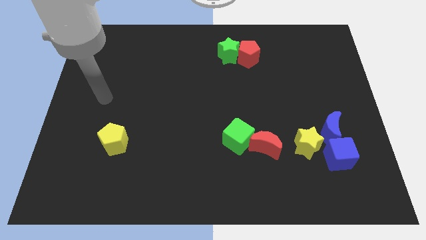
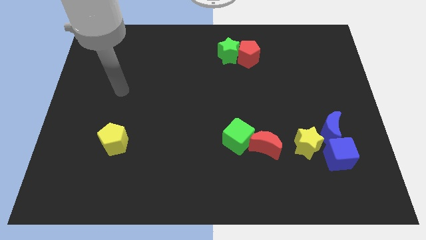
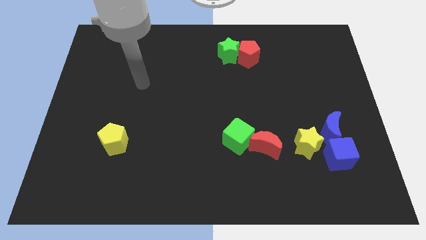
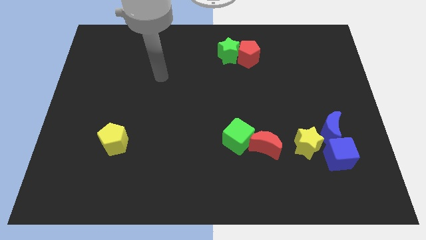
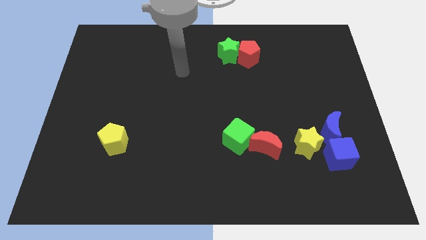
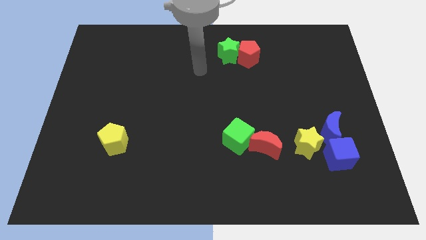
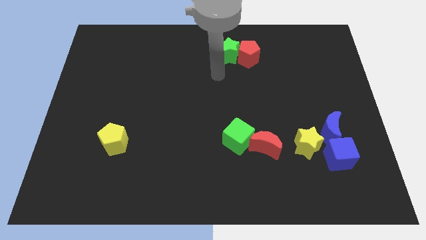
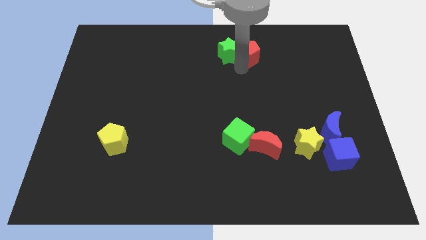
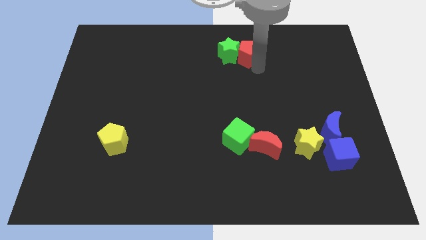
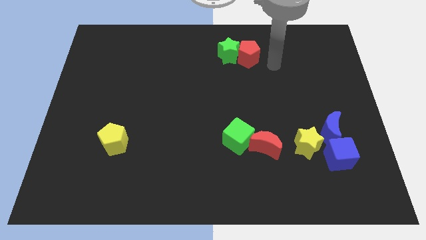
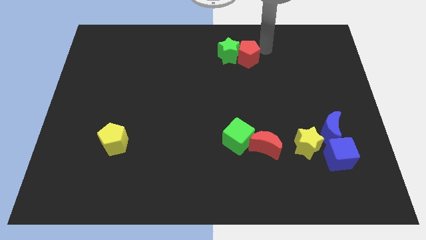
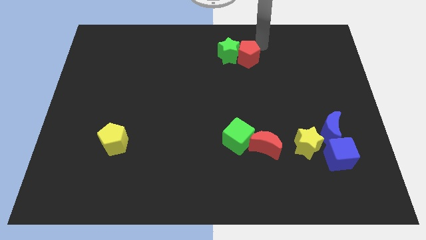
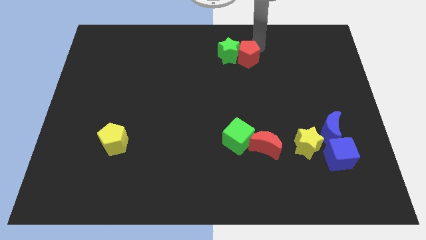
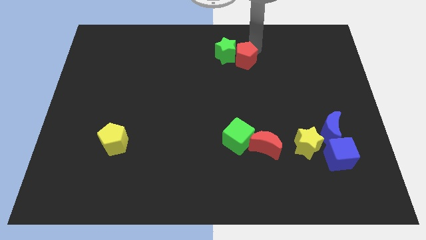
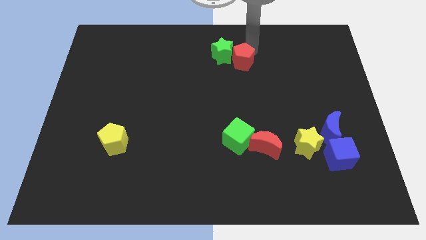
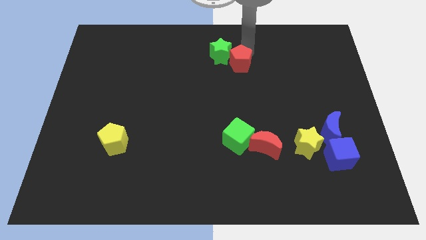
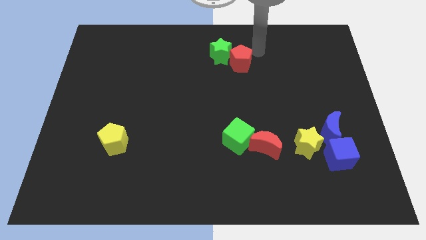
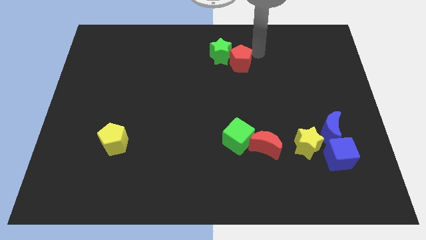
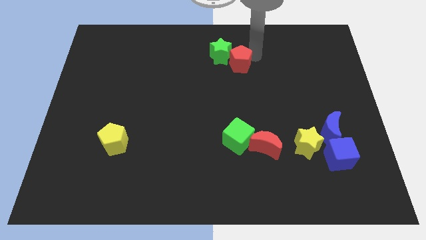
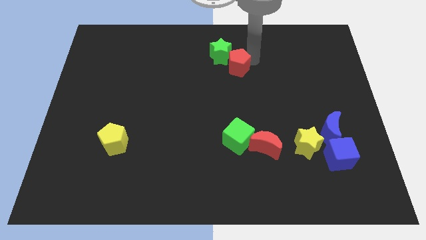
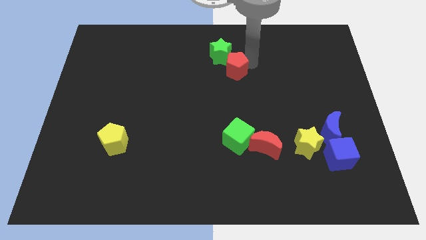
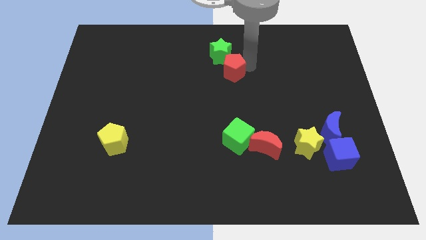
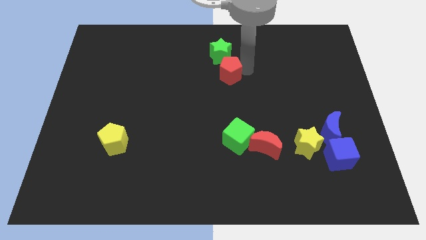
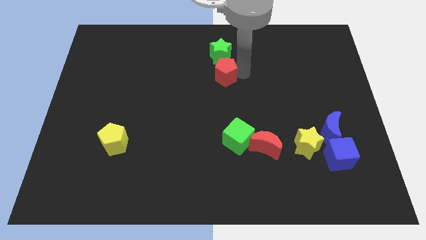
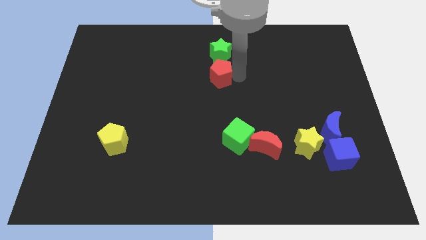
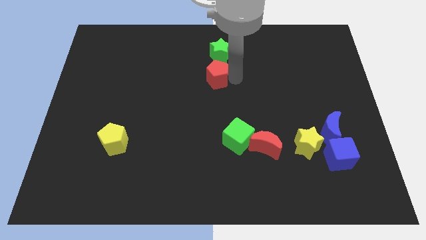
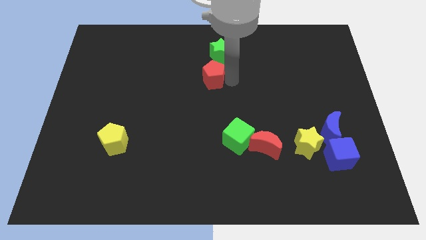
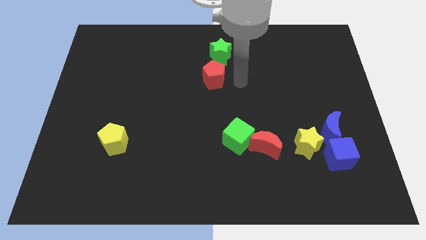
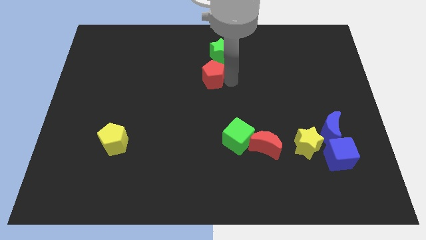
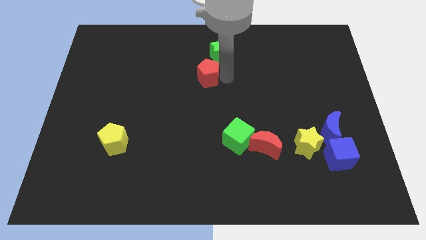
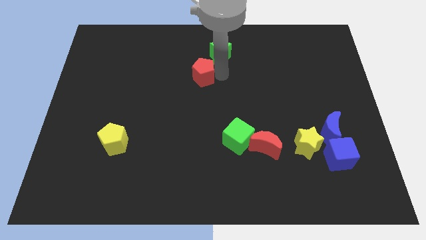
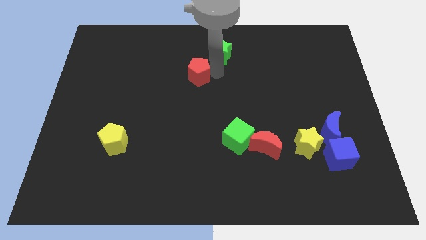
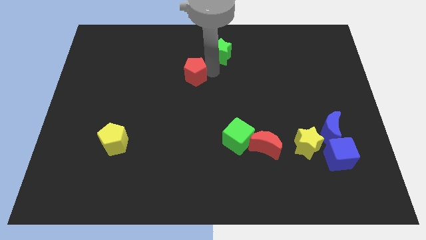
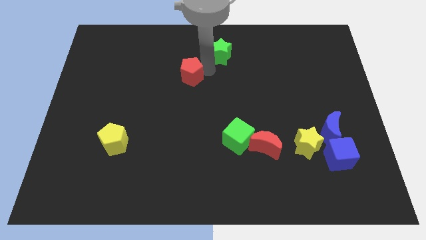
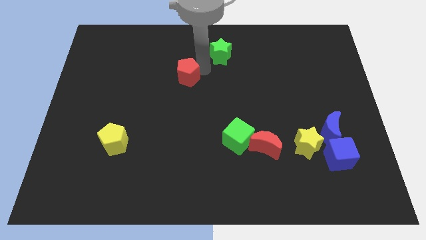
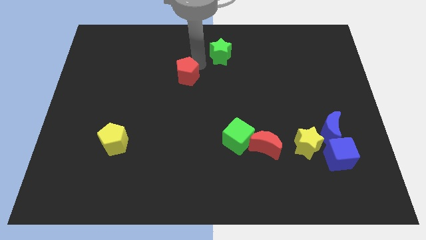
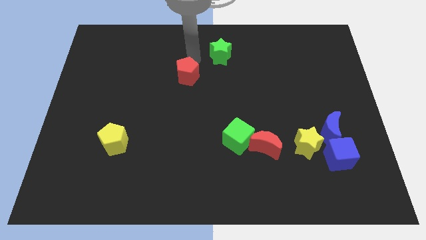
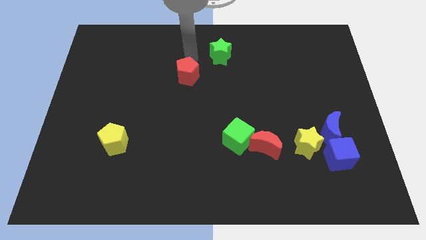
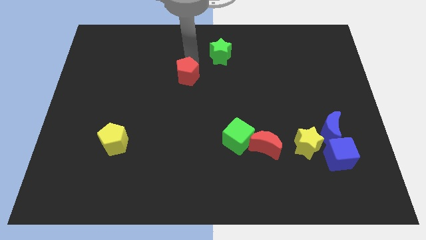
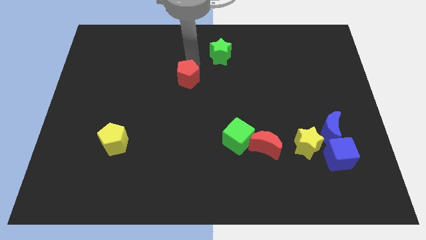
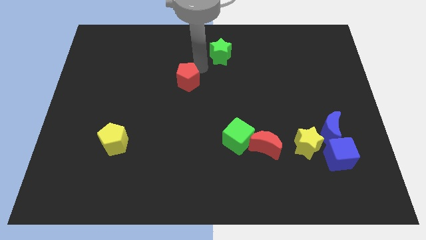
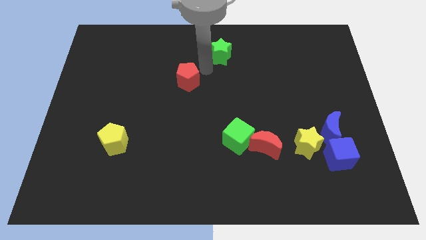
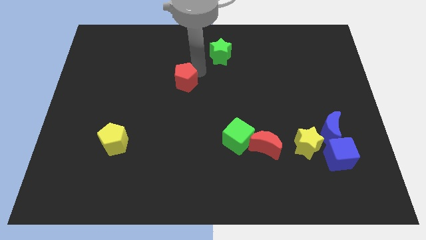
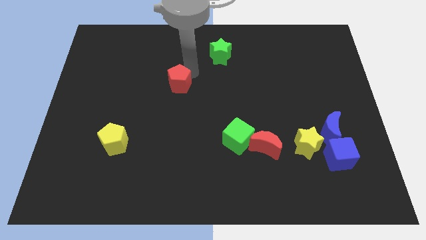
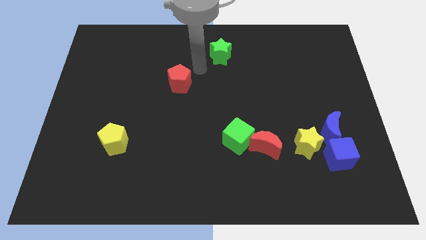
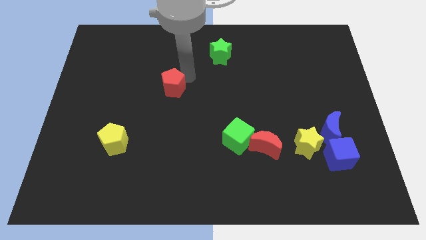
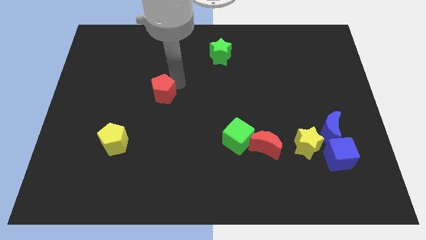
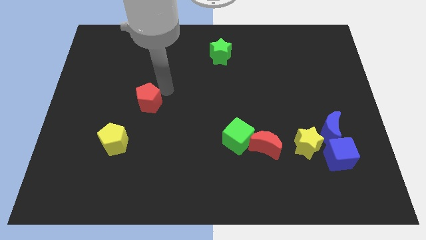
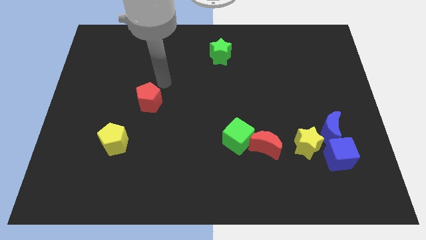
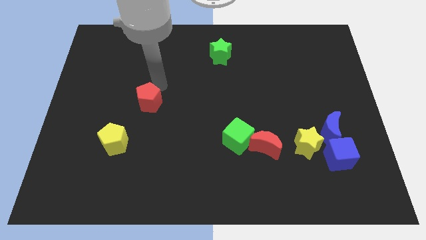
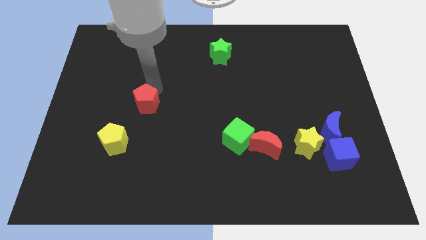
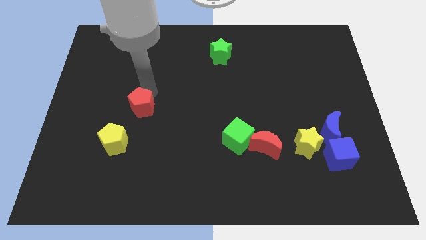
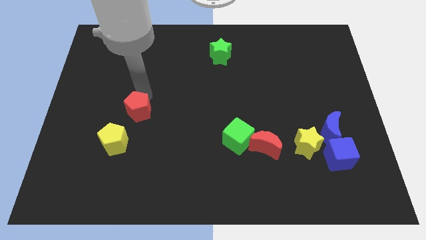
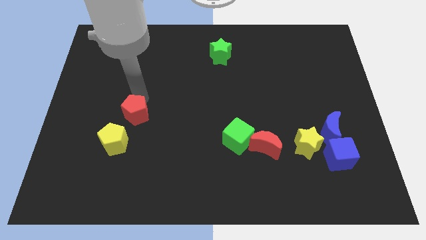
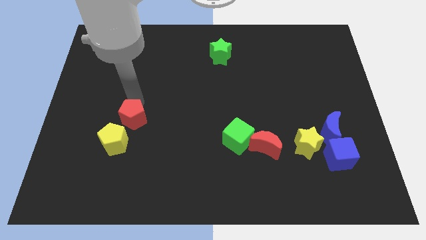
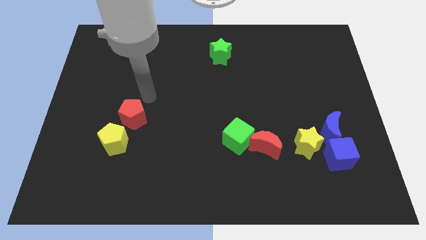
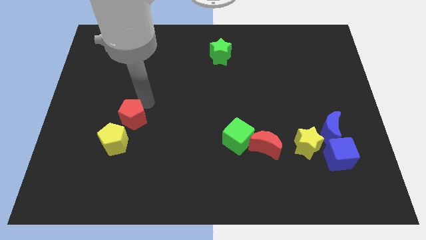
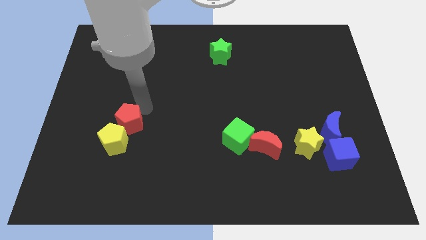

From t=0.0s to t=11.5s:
put the red pentagon to the yellow pentagon
